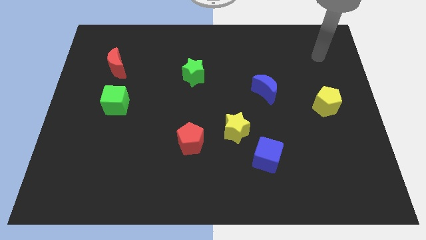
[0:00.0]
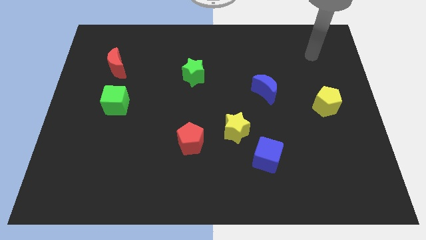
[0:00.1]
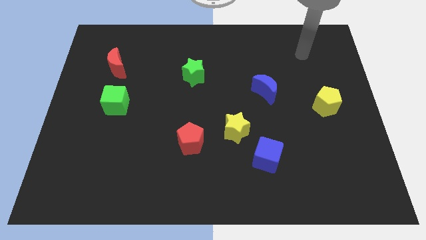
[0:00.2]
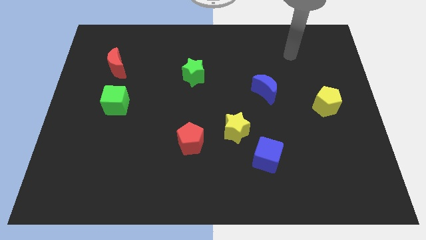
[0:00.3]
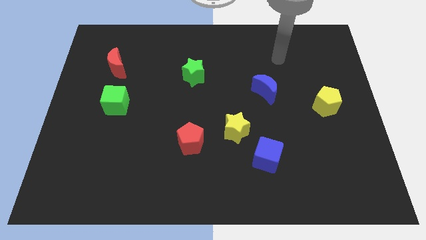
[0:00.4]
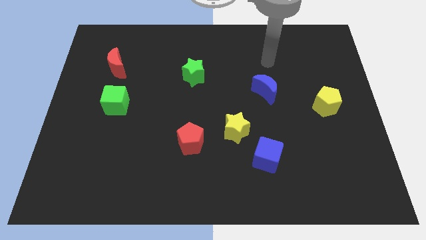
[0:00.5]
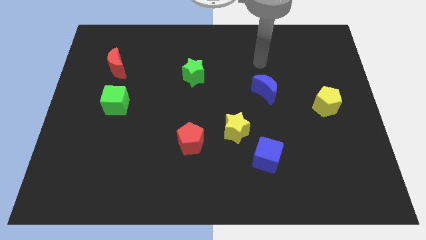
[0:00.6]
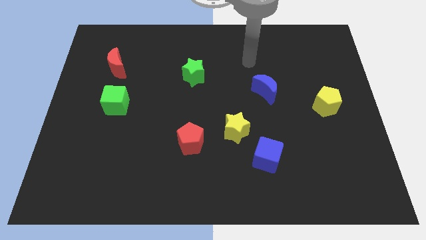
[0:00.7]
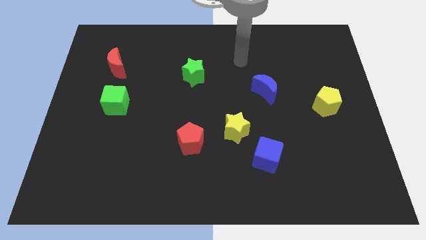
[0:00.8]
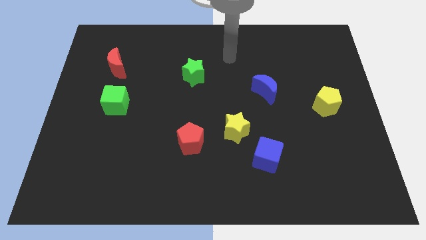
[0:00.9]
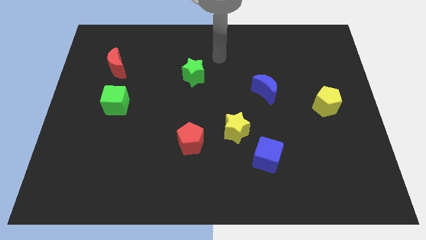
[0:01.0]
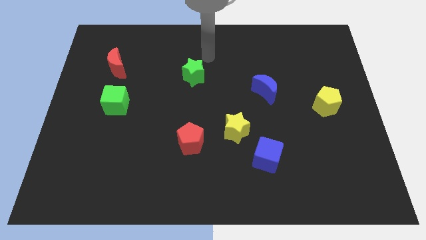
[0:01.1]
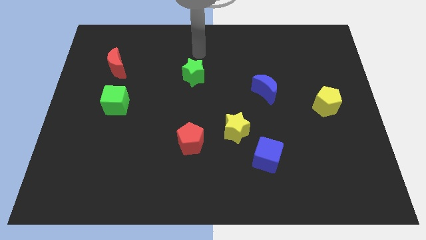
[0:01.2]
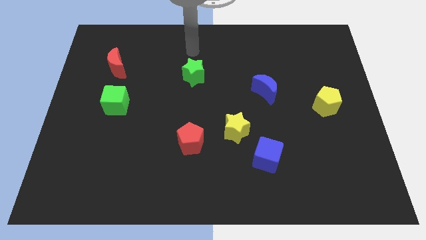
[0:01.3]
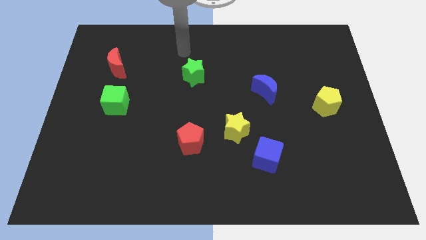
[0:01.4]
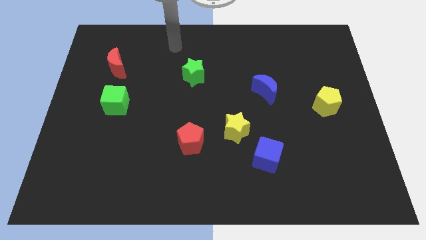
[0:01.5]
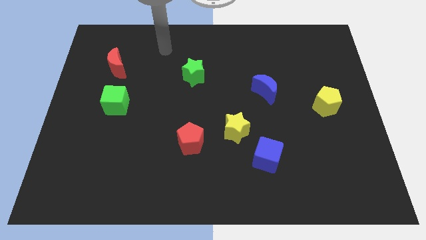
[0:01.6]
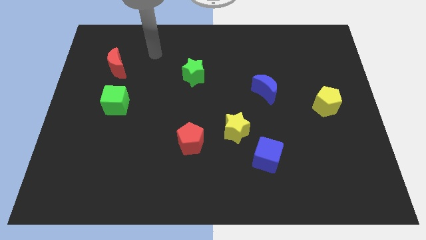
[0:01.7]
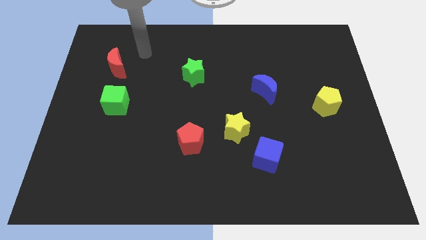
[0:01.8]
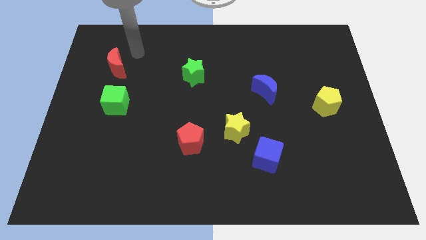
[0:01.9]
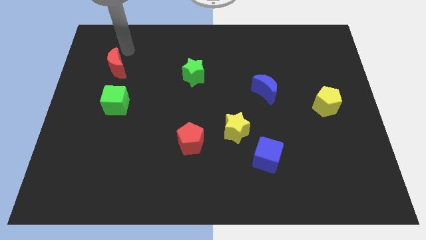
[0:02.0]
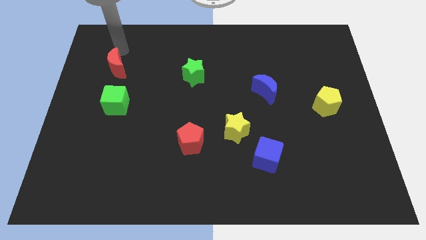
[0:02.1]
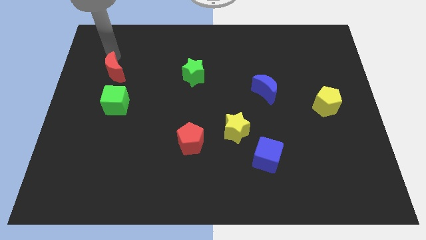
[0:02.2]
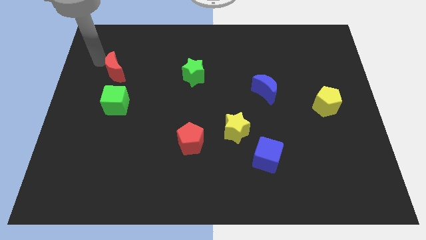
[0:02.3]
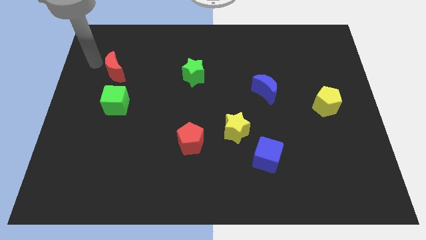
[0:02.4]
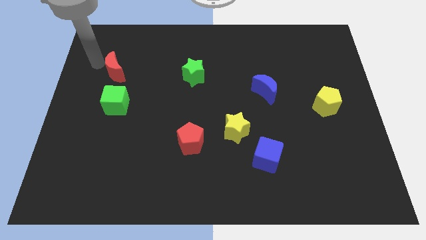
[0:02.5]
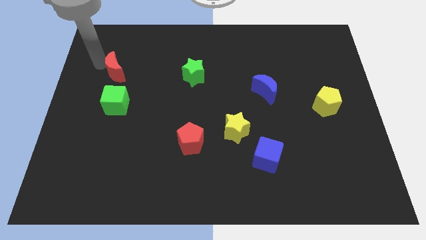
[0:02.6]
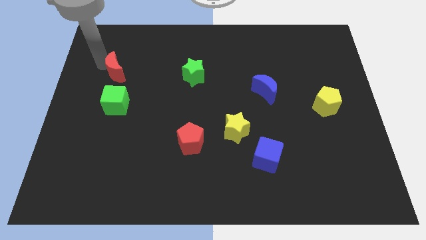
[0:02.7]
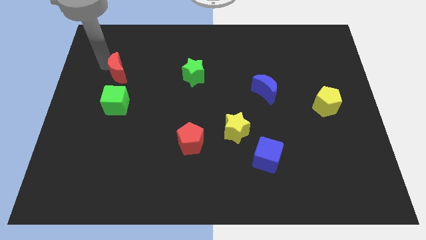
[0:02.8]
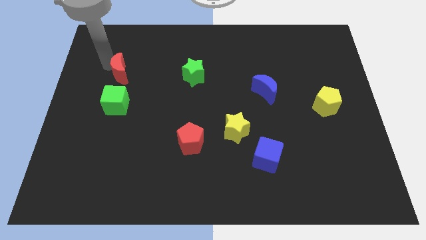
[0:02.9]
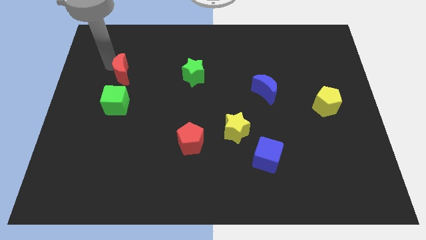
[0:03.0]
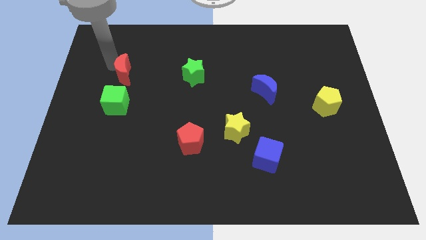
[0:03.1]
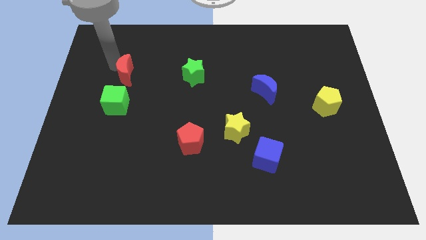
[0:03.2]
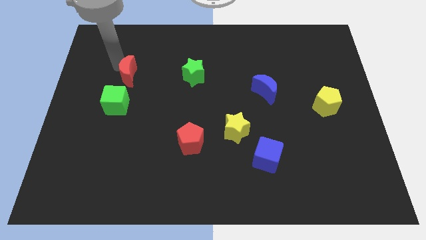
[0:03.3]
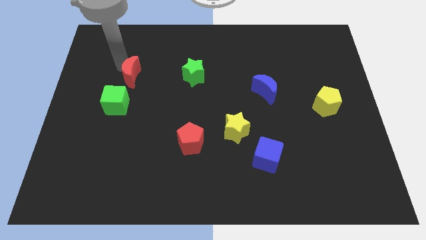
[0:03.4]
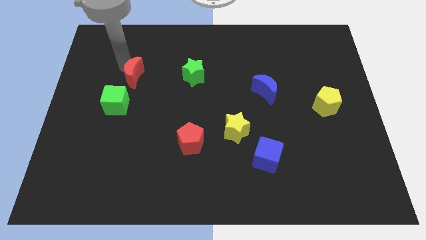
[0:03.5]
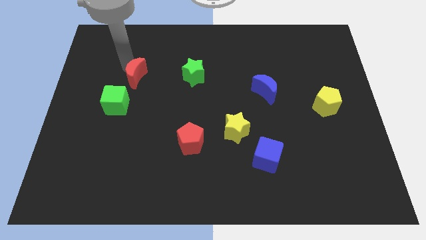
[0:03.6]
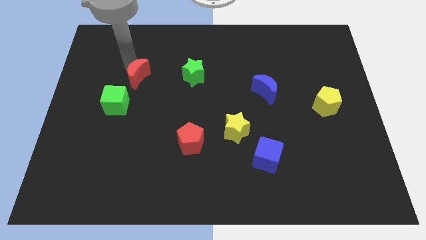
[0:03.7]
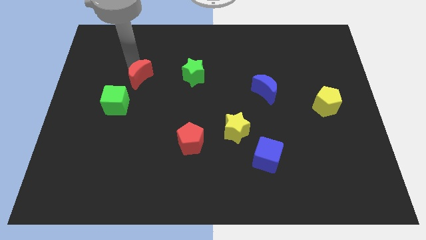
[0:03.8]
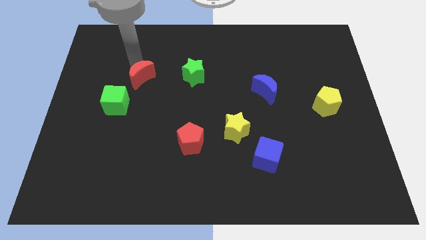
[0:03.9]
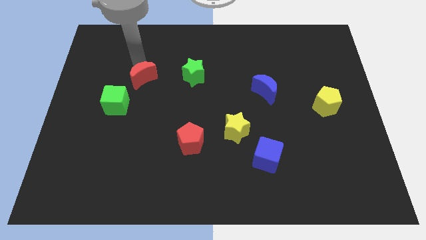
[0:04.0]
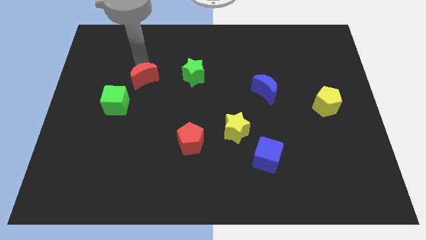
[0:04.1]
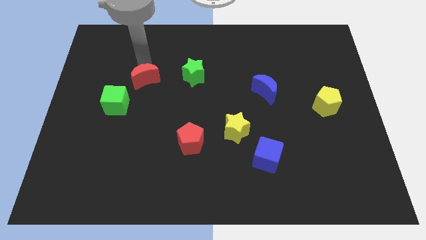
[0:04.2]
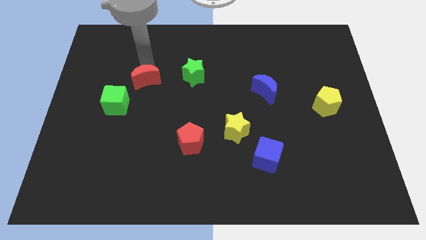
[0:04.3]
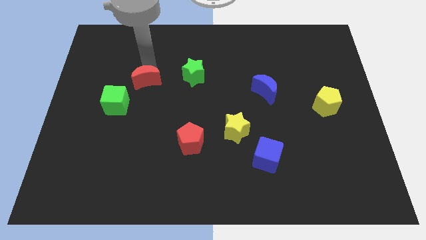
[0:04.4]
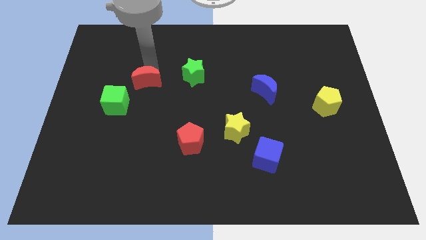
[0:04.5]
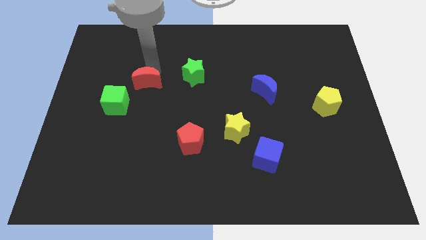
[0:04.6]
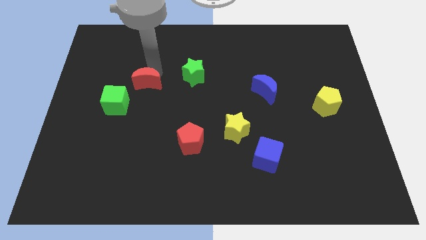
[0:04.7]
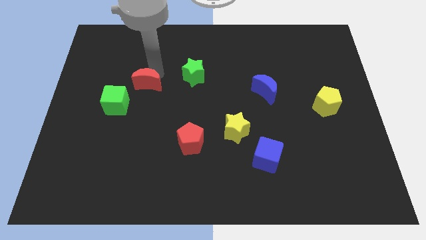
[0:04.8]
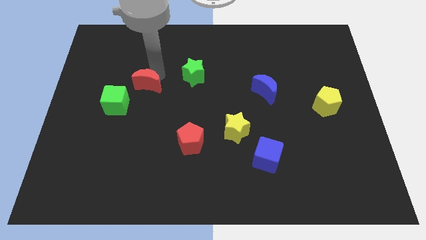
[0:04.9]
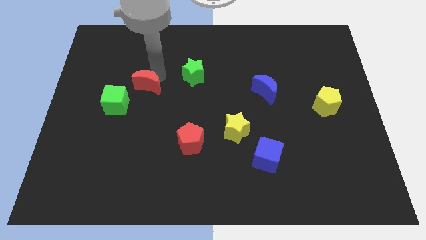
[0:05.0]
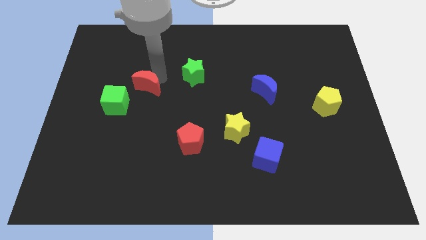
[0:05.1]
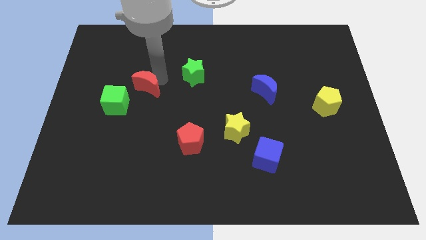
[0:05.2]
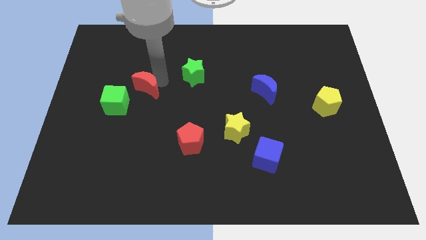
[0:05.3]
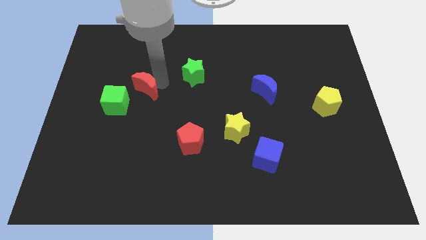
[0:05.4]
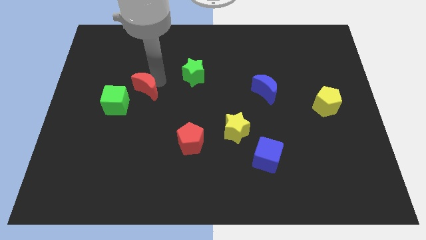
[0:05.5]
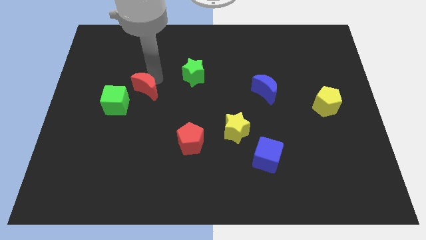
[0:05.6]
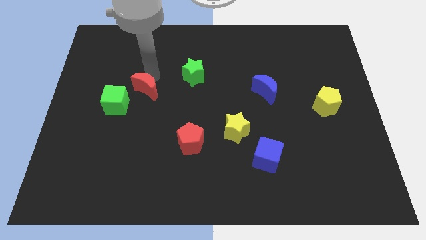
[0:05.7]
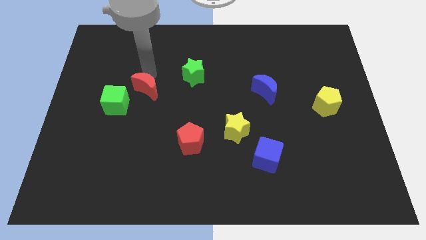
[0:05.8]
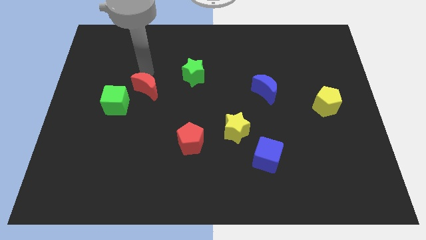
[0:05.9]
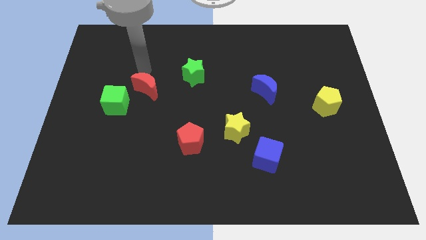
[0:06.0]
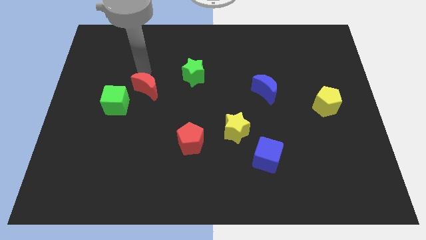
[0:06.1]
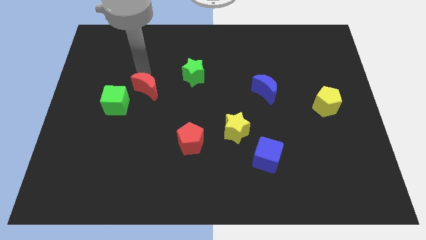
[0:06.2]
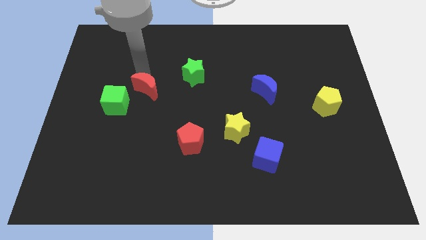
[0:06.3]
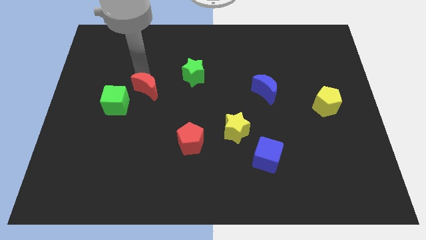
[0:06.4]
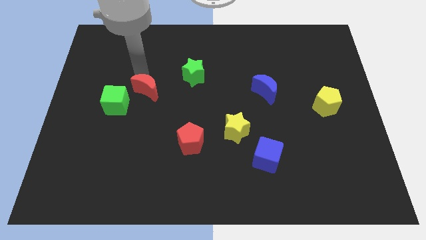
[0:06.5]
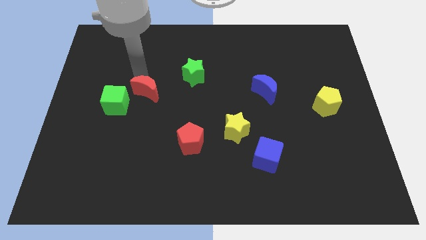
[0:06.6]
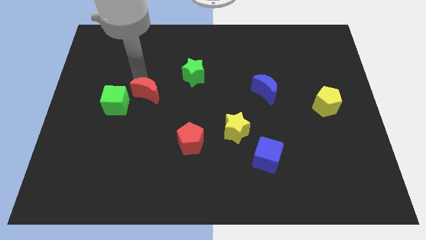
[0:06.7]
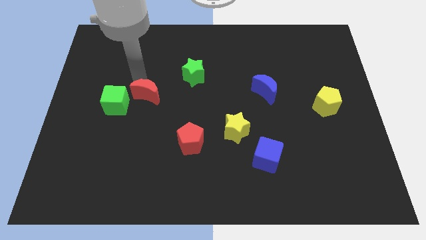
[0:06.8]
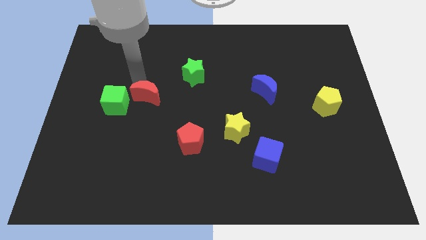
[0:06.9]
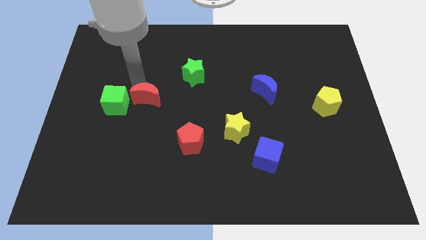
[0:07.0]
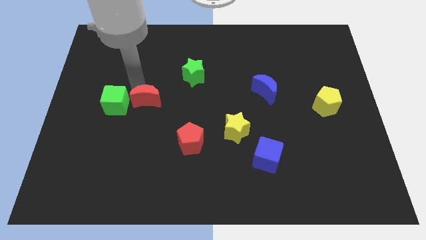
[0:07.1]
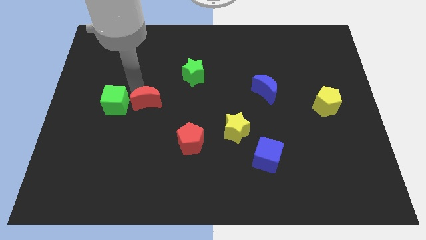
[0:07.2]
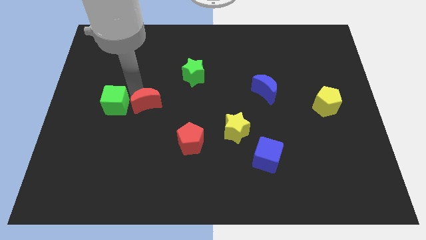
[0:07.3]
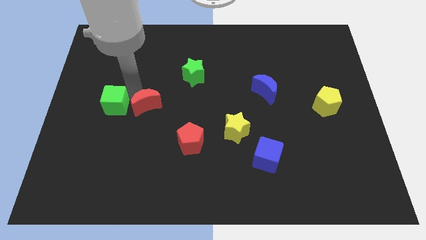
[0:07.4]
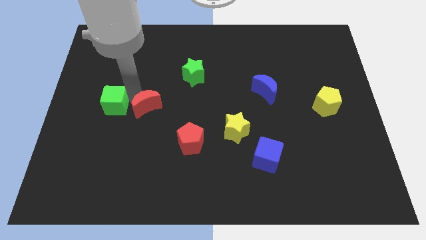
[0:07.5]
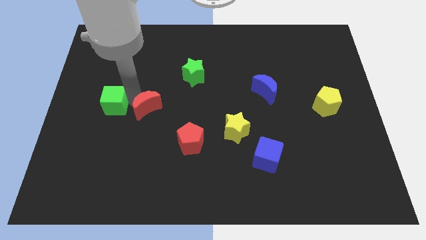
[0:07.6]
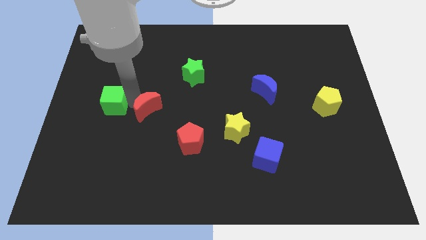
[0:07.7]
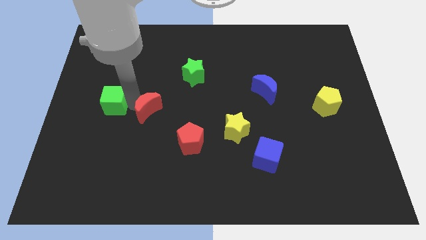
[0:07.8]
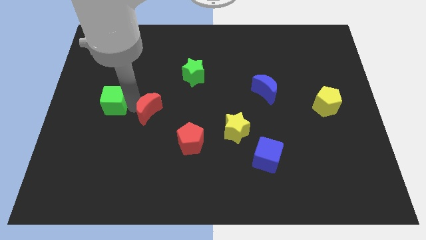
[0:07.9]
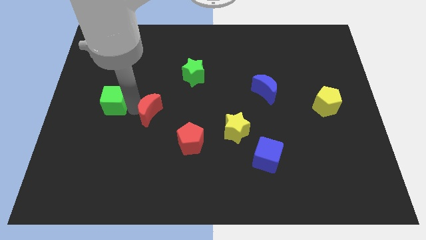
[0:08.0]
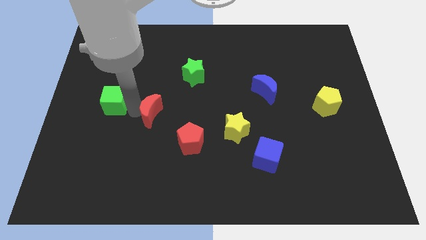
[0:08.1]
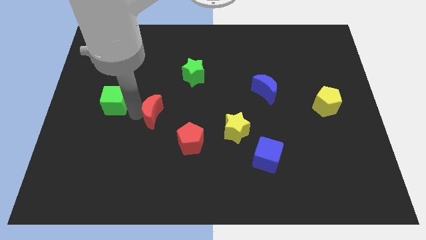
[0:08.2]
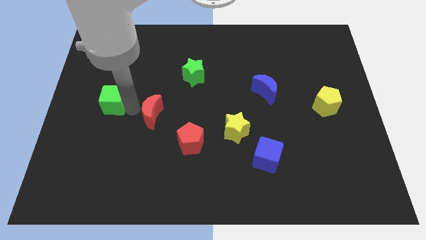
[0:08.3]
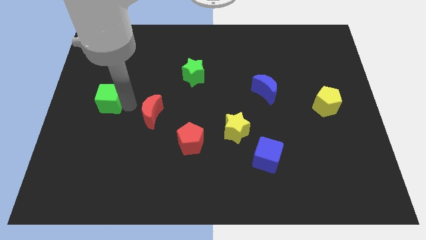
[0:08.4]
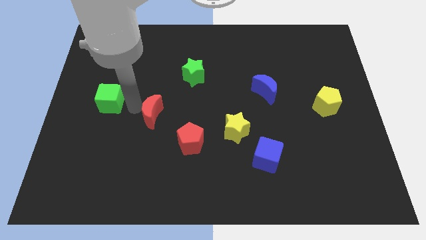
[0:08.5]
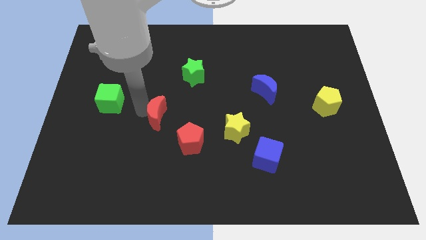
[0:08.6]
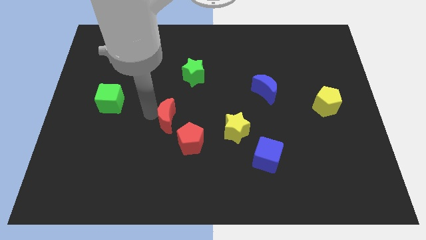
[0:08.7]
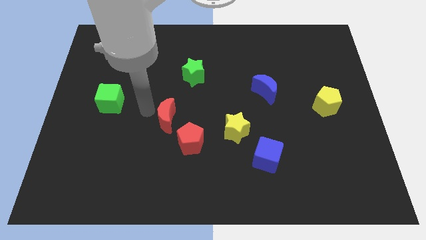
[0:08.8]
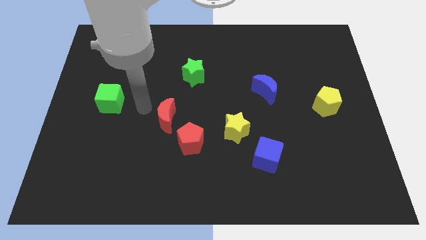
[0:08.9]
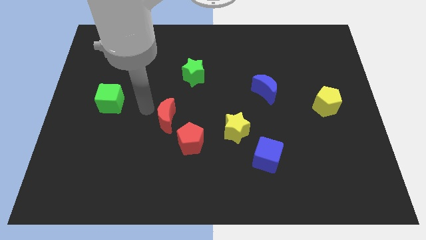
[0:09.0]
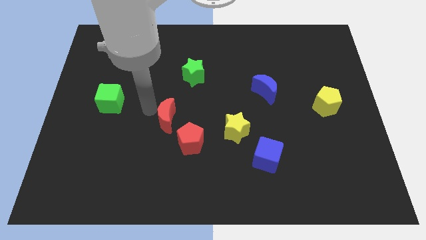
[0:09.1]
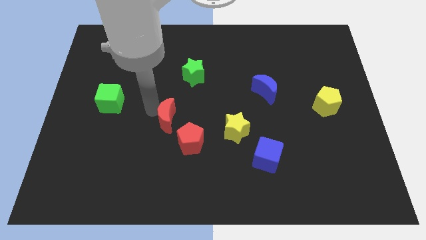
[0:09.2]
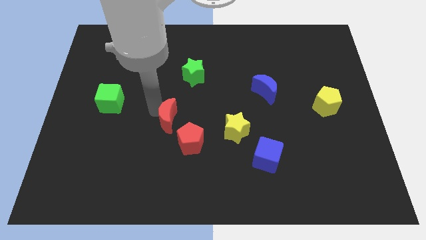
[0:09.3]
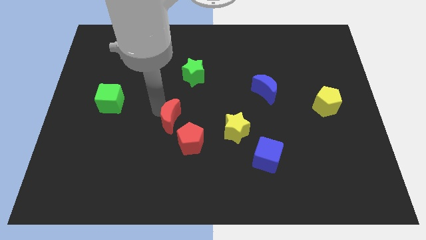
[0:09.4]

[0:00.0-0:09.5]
move the red moon just left of the yellow star
